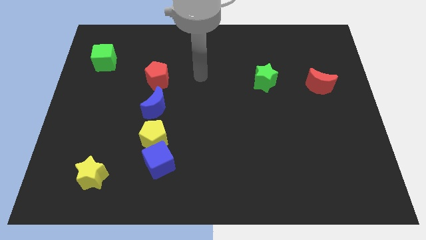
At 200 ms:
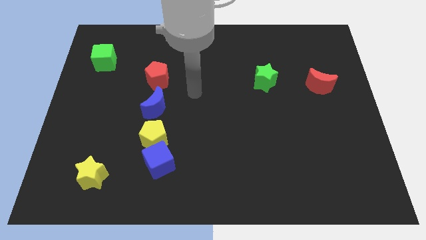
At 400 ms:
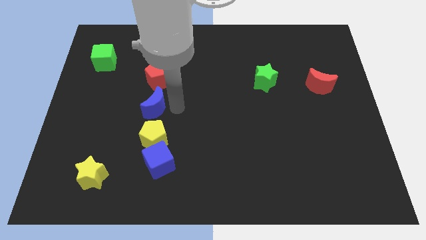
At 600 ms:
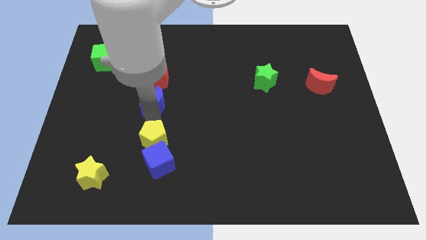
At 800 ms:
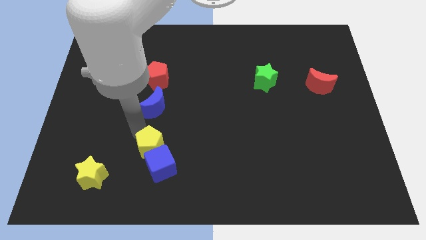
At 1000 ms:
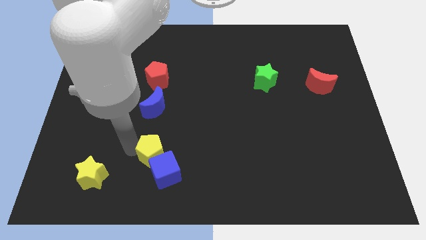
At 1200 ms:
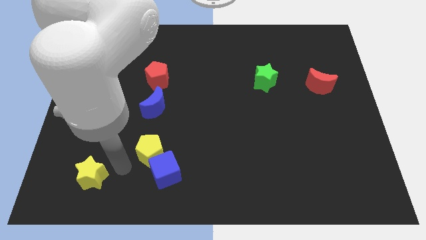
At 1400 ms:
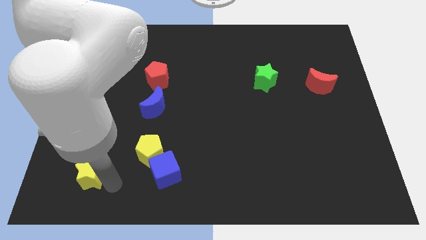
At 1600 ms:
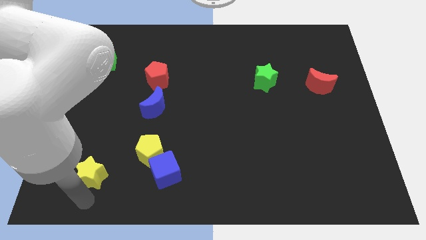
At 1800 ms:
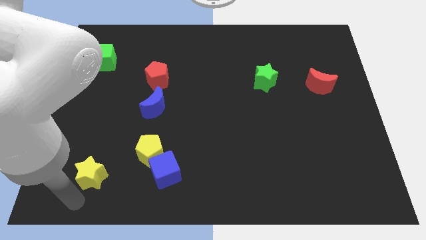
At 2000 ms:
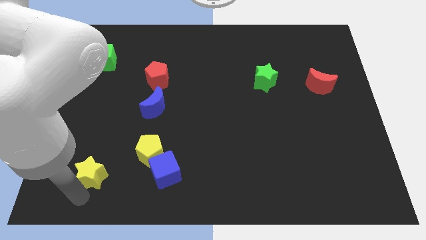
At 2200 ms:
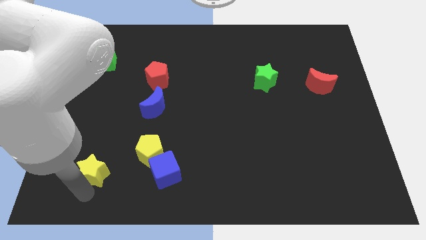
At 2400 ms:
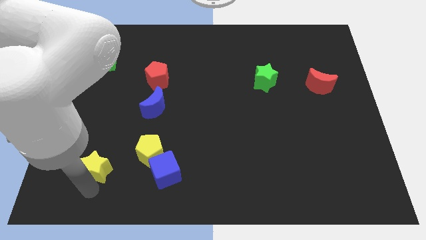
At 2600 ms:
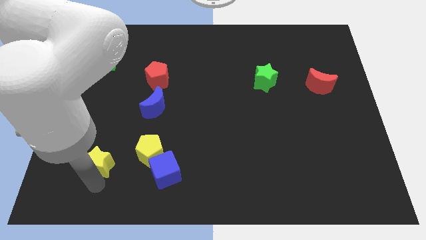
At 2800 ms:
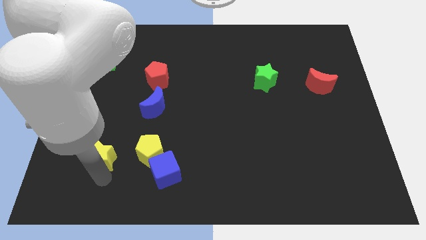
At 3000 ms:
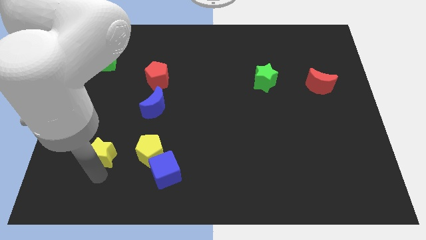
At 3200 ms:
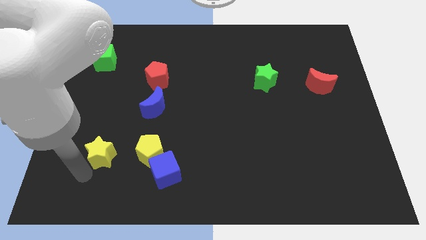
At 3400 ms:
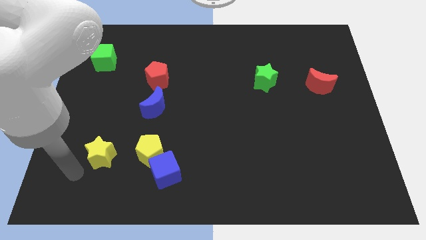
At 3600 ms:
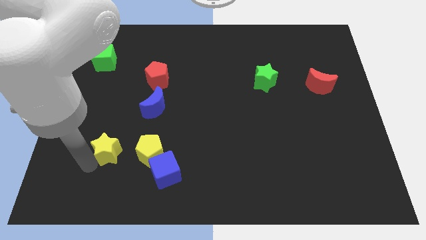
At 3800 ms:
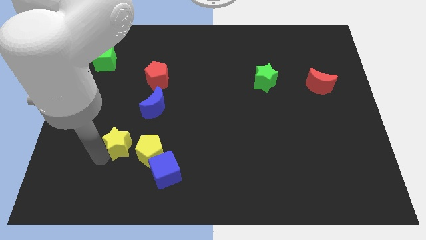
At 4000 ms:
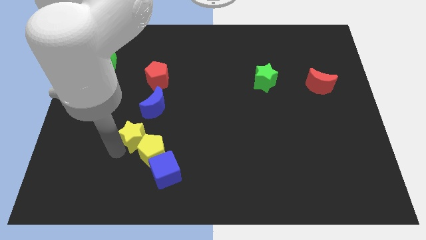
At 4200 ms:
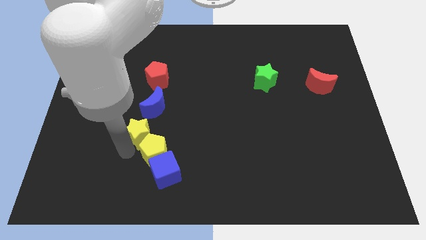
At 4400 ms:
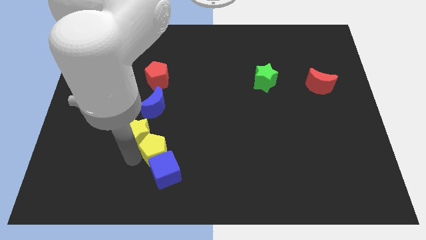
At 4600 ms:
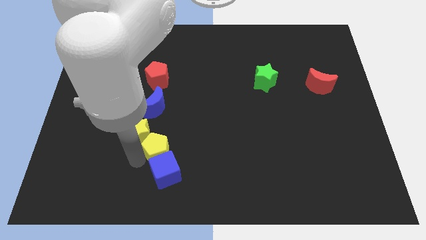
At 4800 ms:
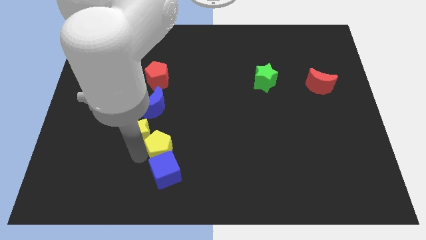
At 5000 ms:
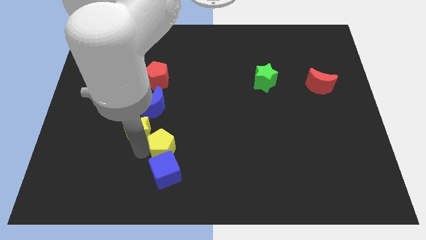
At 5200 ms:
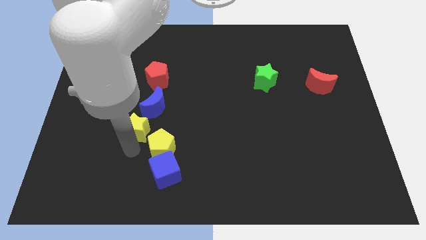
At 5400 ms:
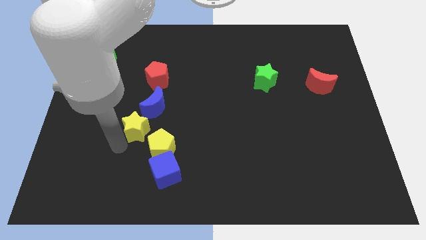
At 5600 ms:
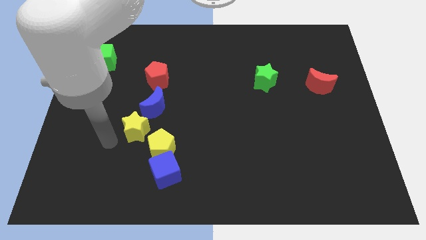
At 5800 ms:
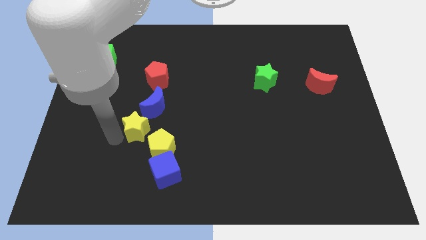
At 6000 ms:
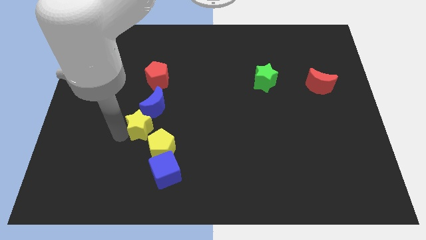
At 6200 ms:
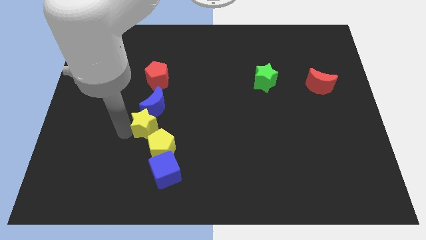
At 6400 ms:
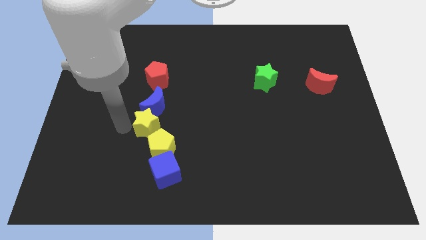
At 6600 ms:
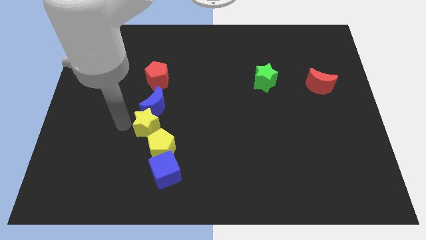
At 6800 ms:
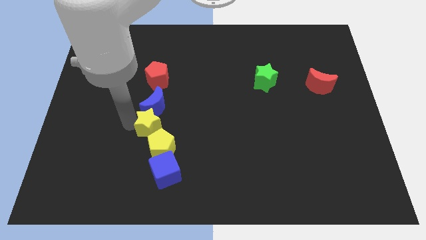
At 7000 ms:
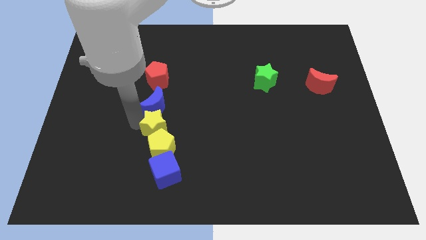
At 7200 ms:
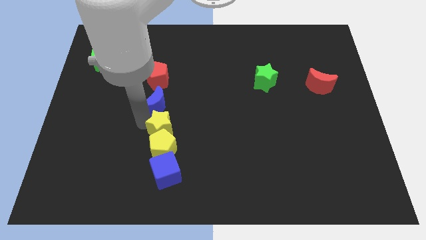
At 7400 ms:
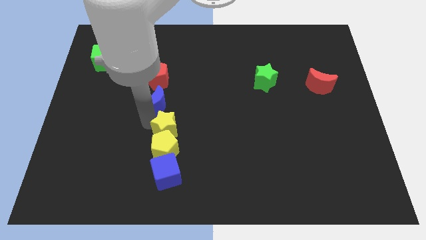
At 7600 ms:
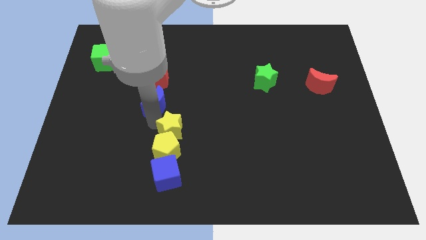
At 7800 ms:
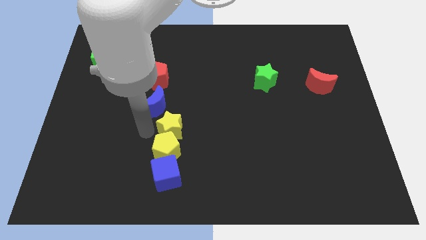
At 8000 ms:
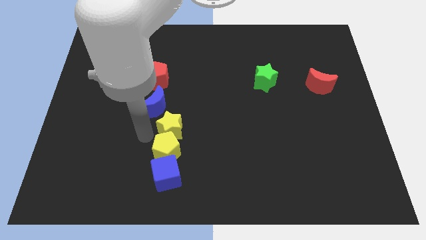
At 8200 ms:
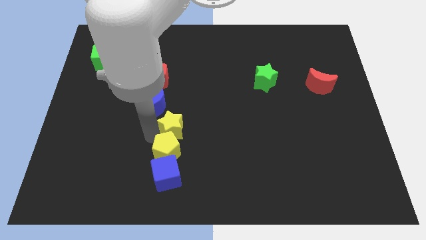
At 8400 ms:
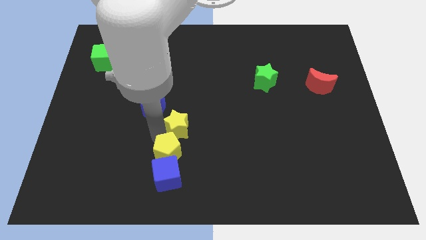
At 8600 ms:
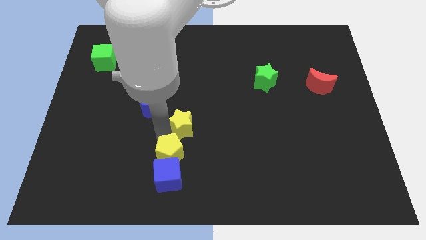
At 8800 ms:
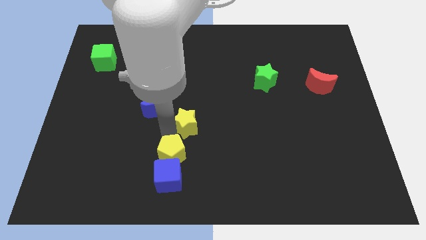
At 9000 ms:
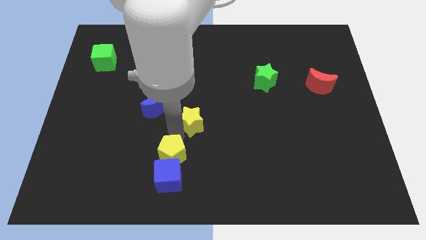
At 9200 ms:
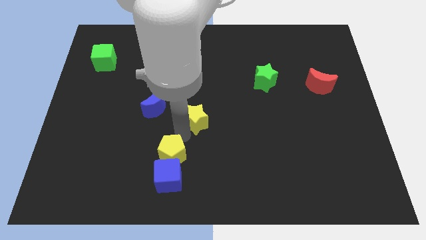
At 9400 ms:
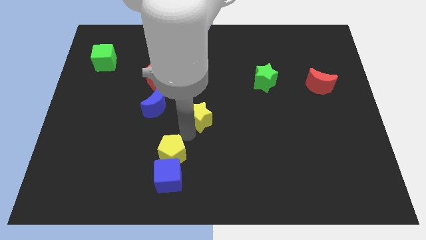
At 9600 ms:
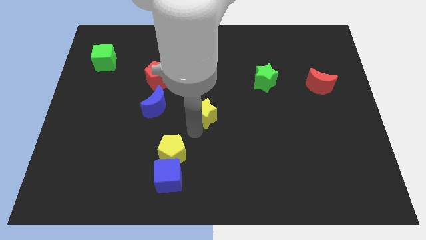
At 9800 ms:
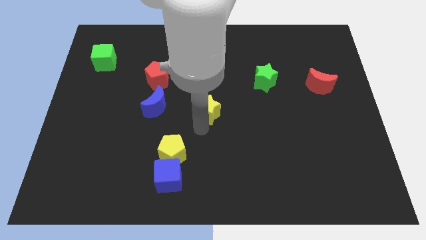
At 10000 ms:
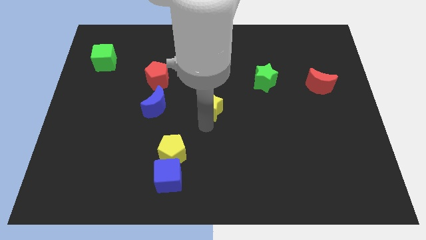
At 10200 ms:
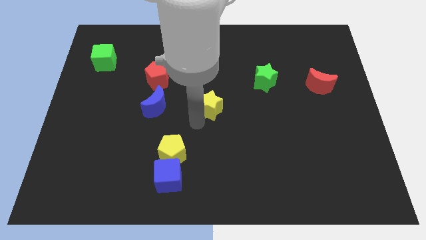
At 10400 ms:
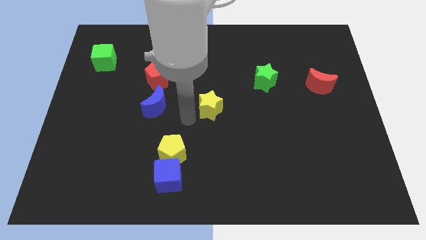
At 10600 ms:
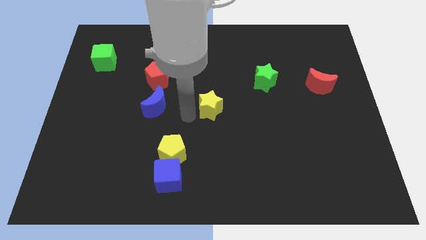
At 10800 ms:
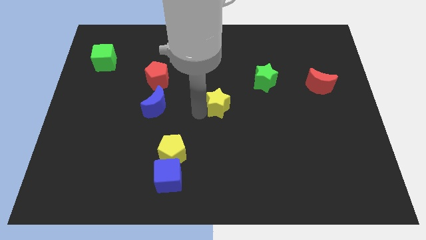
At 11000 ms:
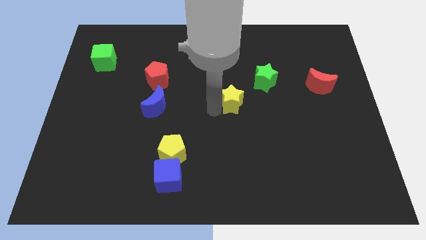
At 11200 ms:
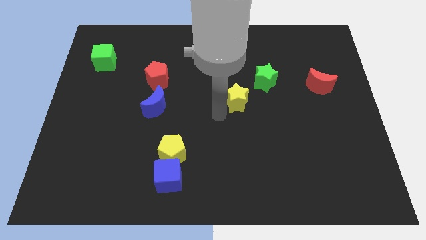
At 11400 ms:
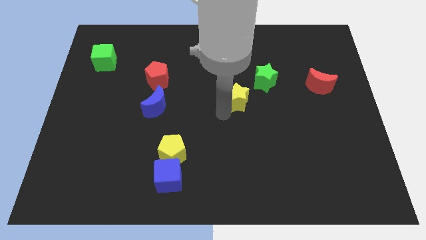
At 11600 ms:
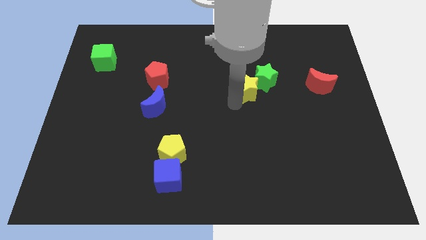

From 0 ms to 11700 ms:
slide the yellow star towards the green star

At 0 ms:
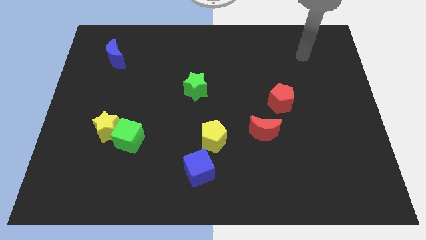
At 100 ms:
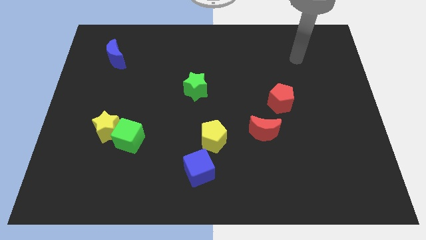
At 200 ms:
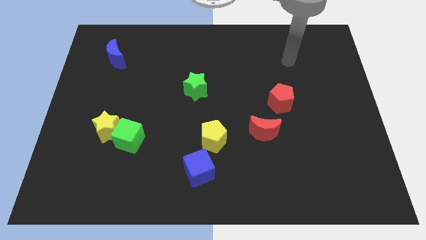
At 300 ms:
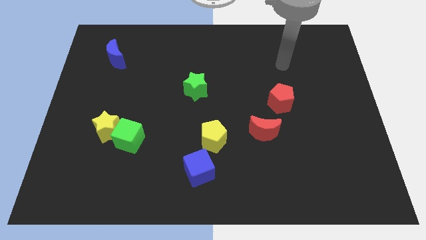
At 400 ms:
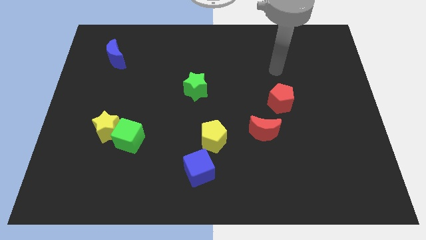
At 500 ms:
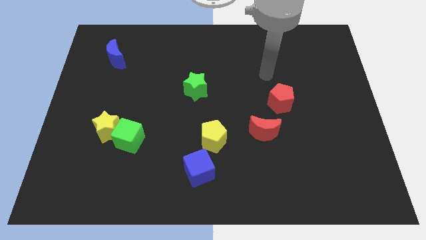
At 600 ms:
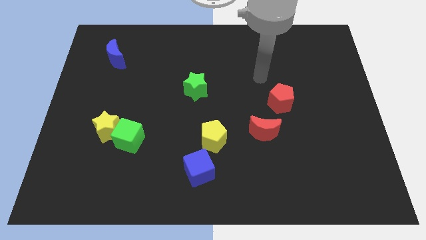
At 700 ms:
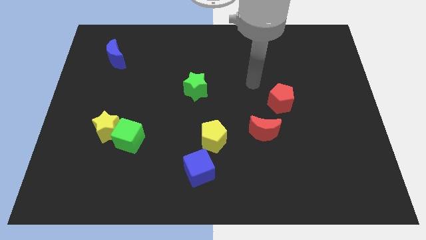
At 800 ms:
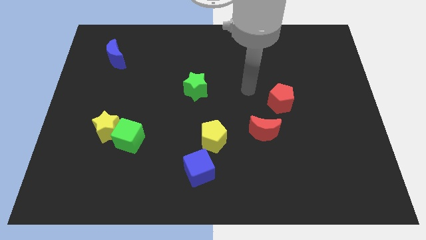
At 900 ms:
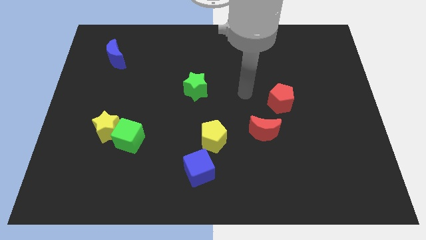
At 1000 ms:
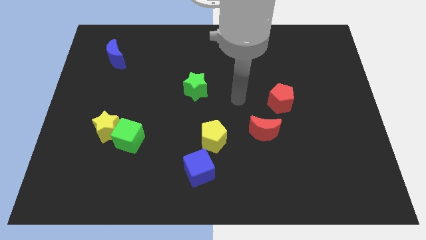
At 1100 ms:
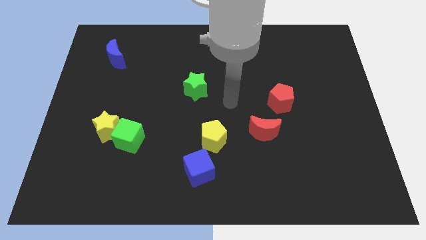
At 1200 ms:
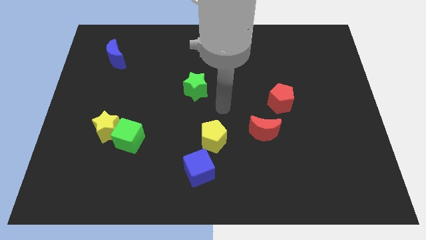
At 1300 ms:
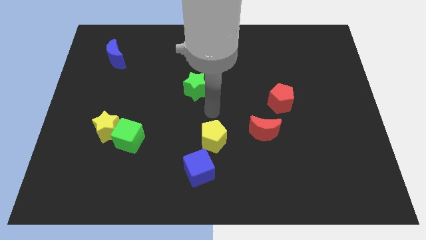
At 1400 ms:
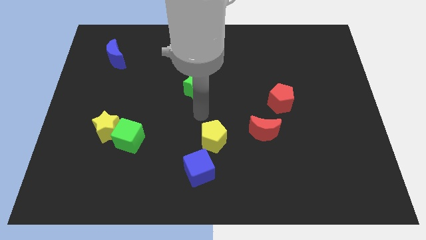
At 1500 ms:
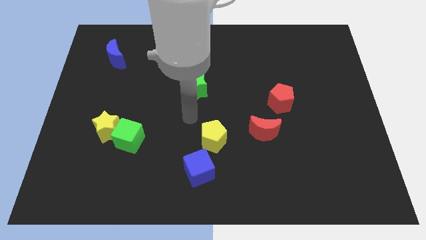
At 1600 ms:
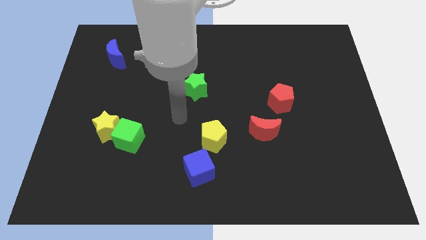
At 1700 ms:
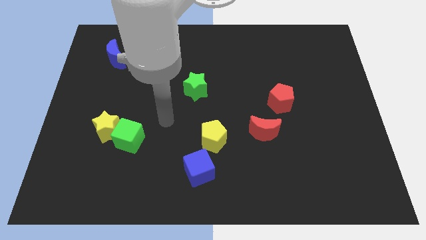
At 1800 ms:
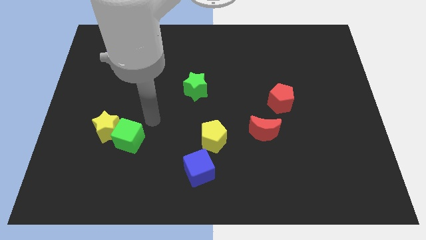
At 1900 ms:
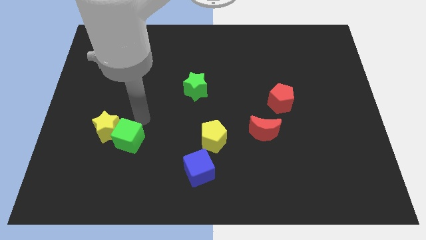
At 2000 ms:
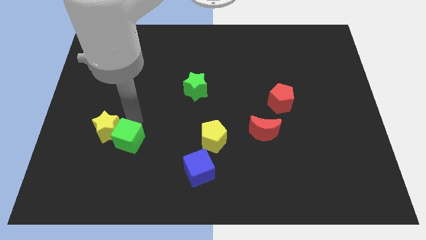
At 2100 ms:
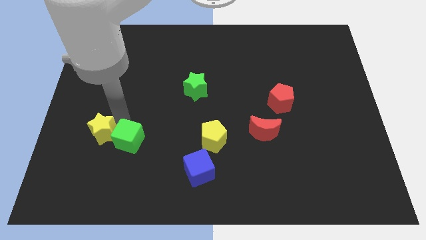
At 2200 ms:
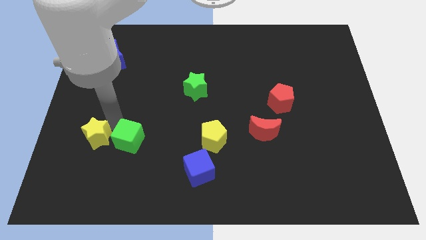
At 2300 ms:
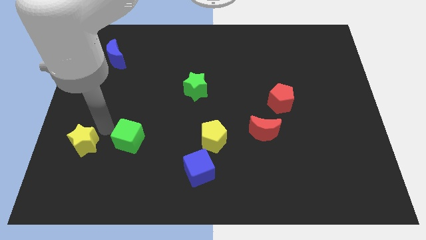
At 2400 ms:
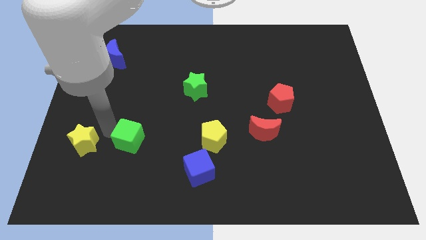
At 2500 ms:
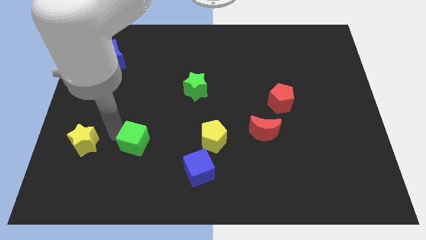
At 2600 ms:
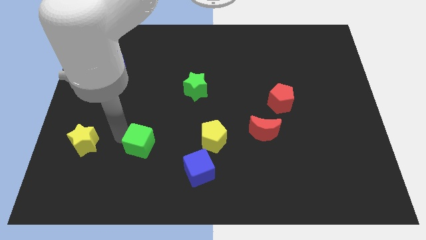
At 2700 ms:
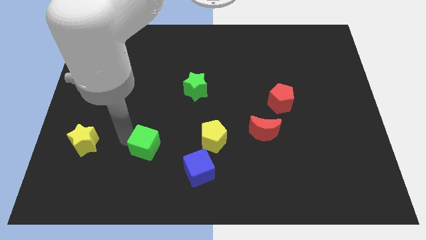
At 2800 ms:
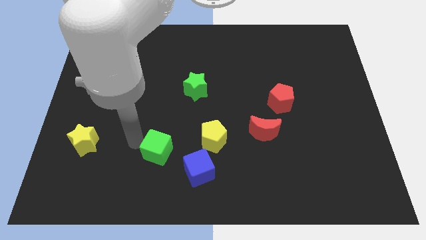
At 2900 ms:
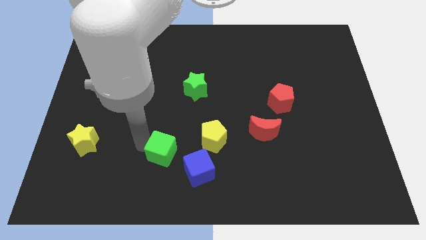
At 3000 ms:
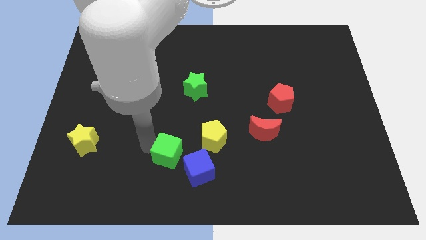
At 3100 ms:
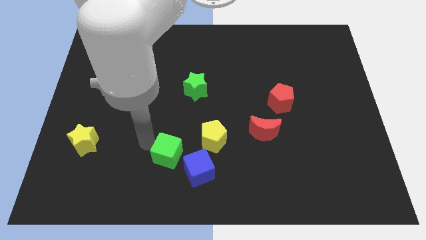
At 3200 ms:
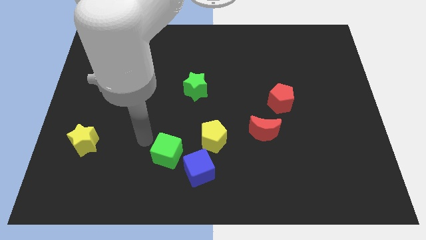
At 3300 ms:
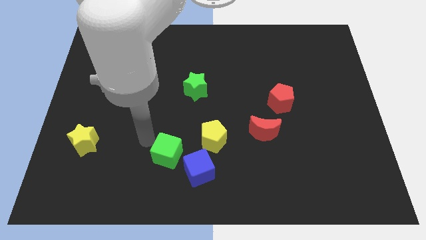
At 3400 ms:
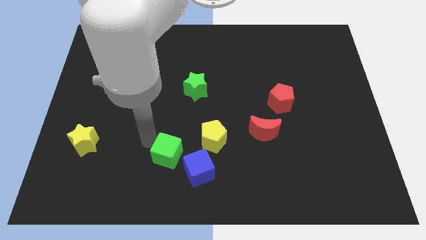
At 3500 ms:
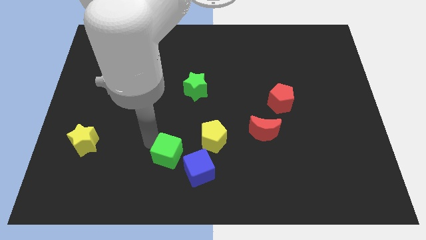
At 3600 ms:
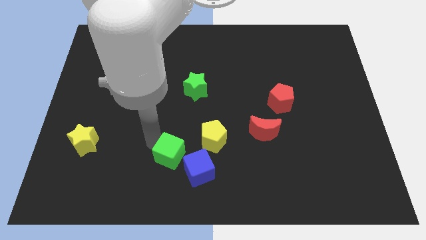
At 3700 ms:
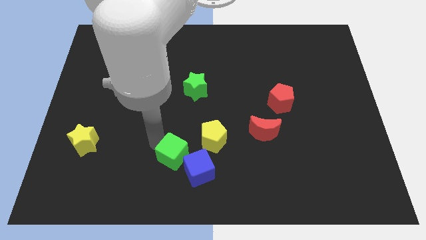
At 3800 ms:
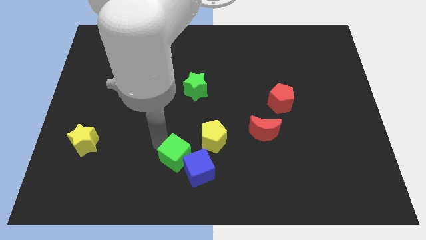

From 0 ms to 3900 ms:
move the green cube to the blue cube
